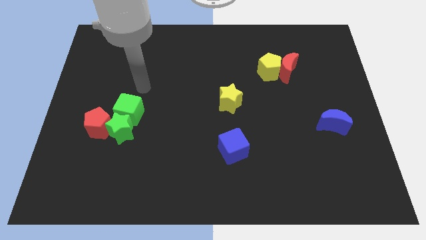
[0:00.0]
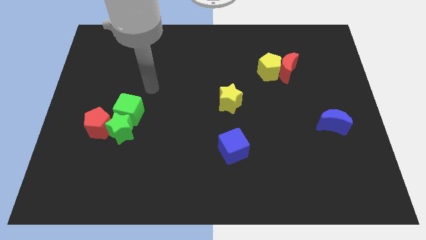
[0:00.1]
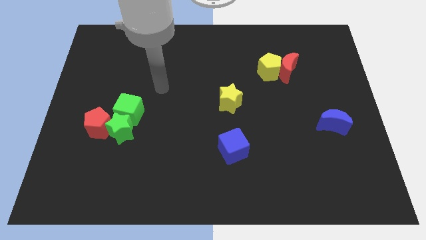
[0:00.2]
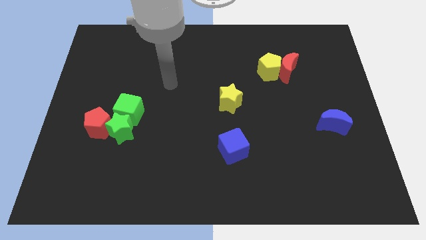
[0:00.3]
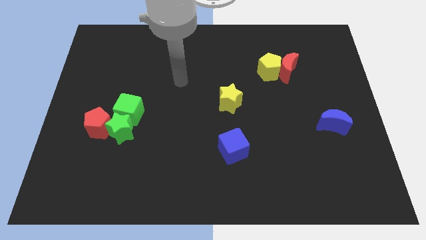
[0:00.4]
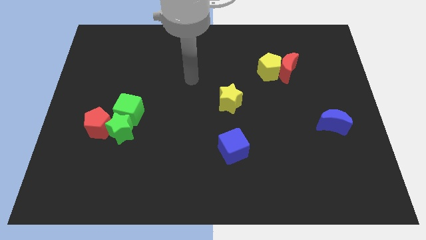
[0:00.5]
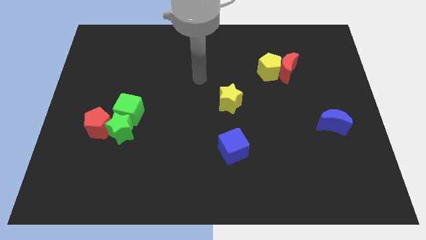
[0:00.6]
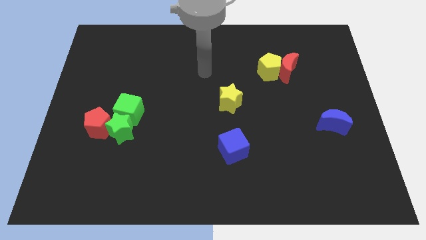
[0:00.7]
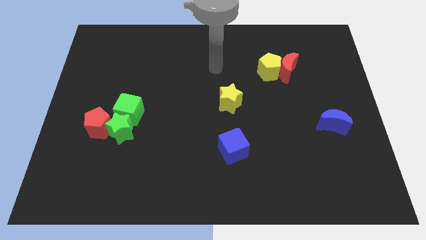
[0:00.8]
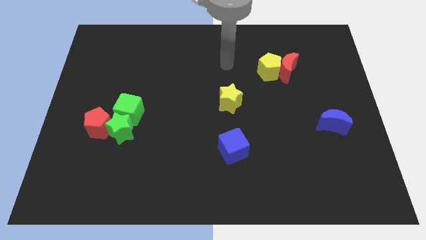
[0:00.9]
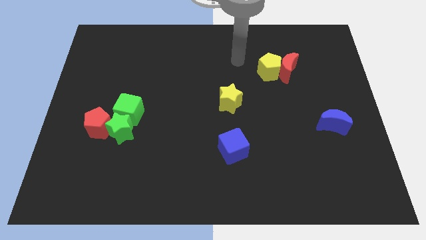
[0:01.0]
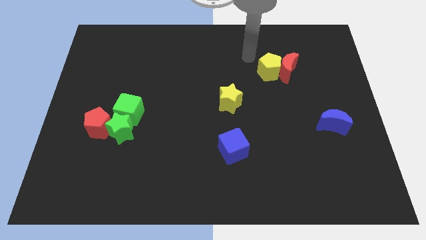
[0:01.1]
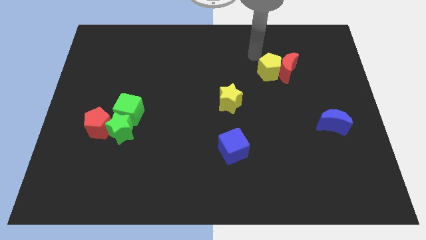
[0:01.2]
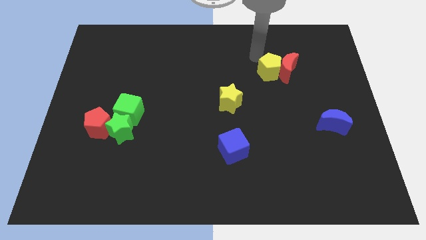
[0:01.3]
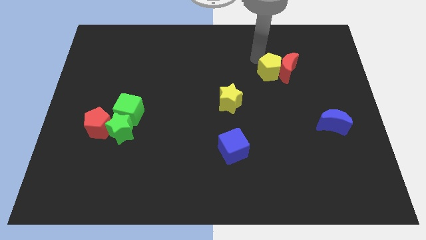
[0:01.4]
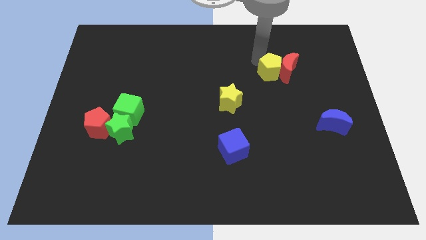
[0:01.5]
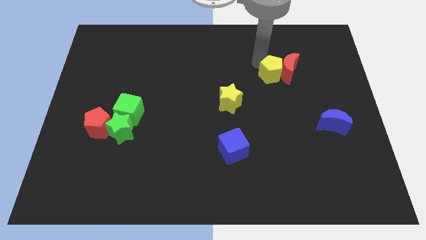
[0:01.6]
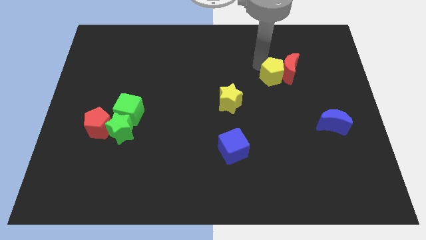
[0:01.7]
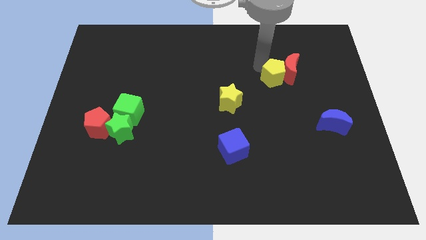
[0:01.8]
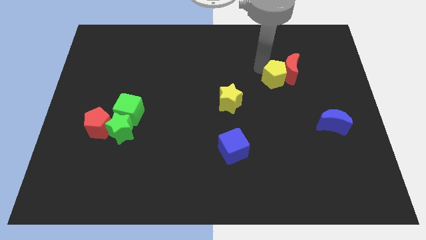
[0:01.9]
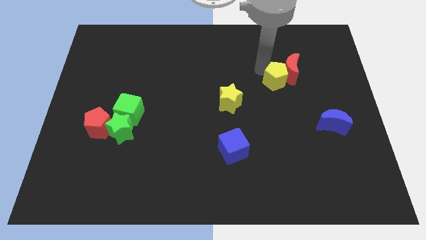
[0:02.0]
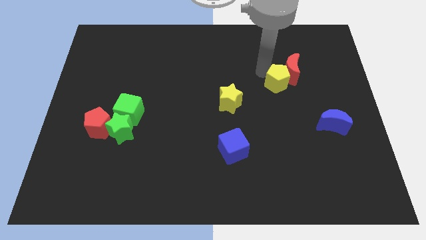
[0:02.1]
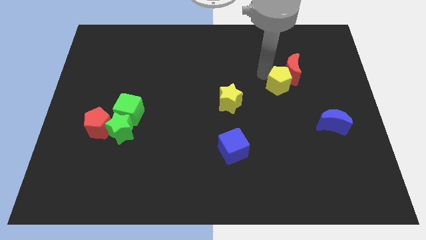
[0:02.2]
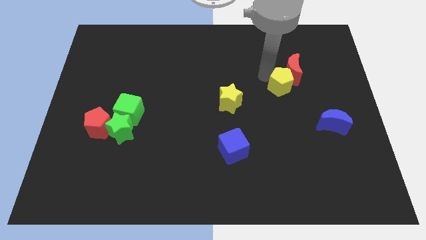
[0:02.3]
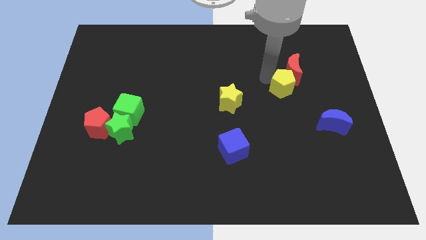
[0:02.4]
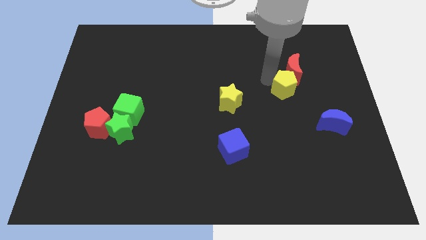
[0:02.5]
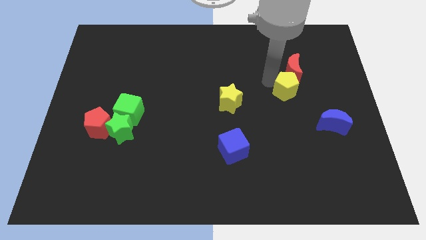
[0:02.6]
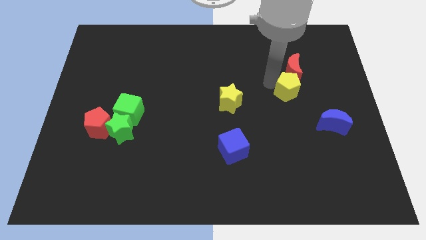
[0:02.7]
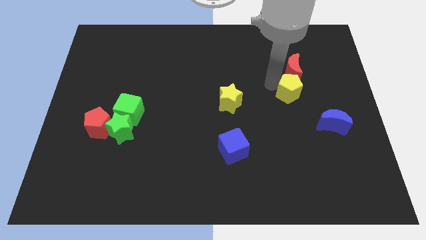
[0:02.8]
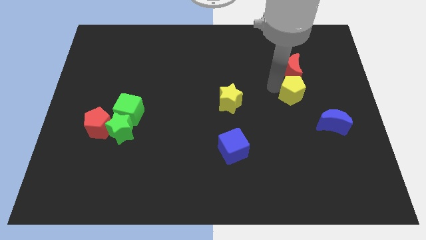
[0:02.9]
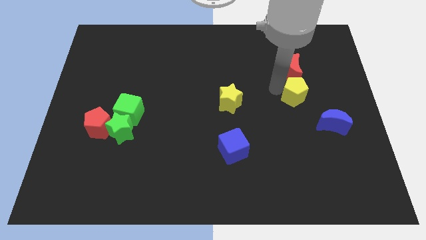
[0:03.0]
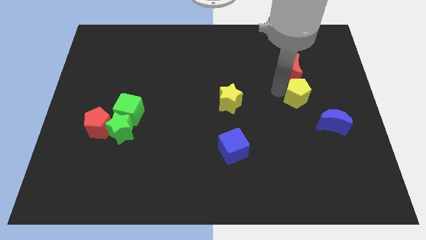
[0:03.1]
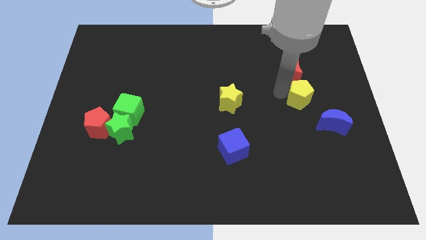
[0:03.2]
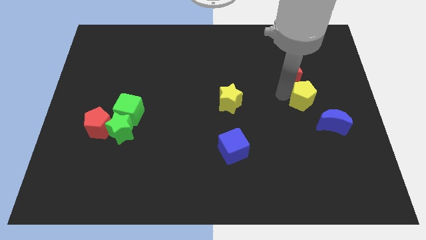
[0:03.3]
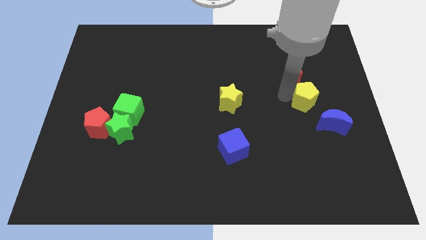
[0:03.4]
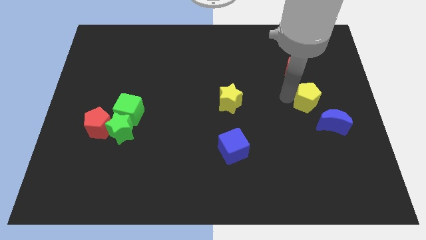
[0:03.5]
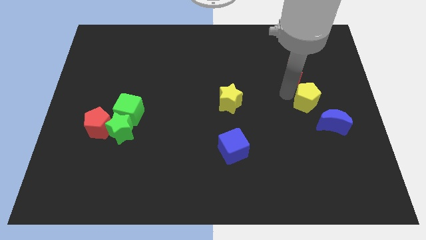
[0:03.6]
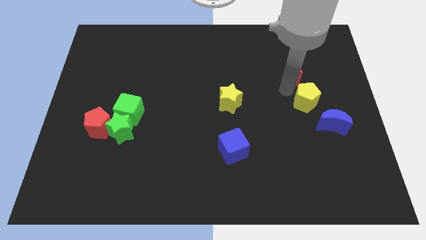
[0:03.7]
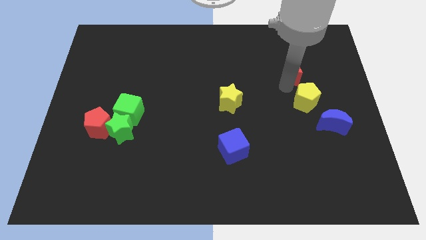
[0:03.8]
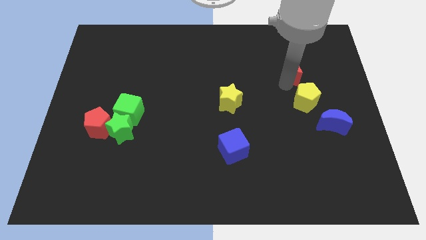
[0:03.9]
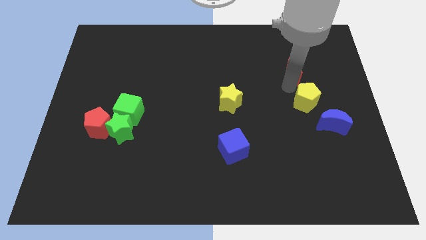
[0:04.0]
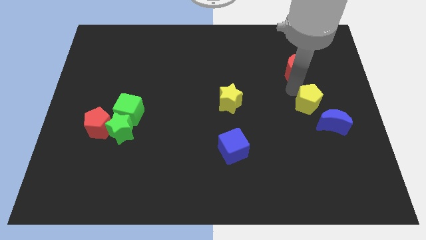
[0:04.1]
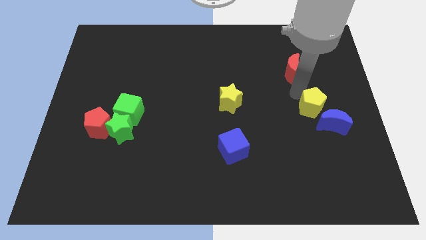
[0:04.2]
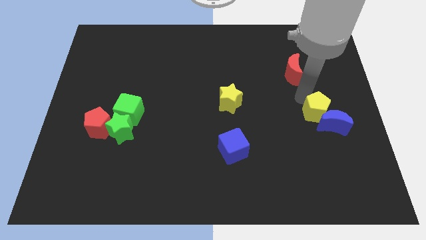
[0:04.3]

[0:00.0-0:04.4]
slide the yellow pentagon to the blue moon

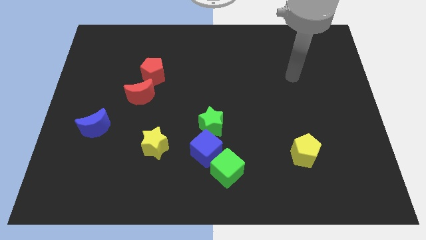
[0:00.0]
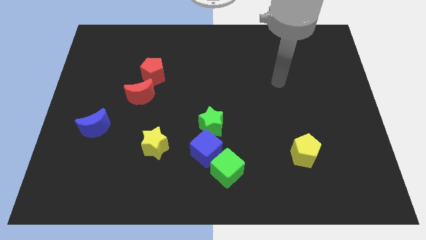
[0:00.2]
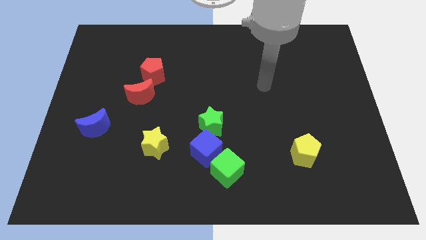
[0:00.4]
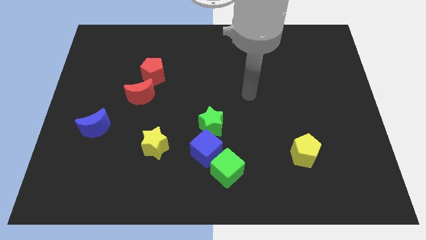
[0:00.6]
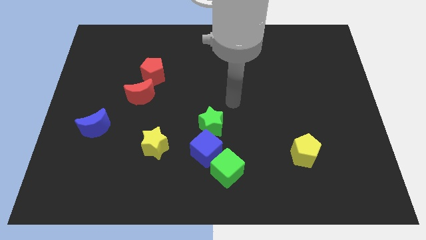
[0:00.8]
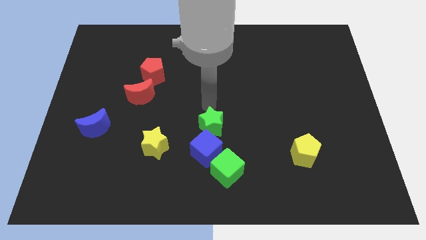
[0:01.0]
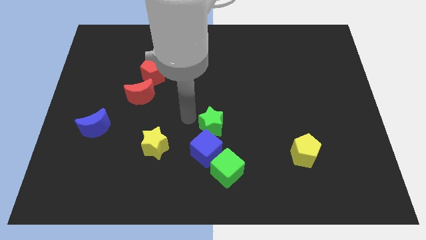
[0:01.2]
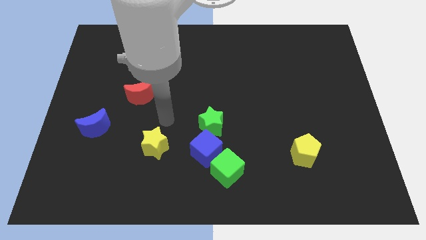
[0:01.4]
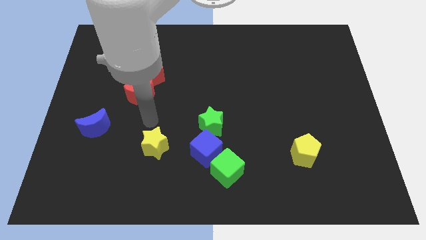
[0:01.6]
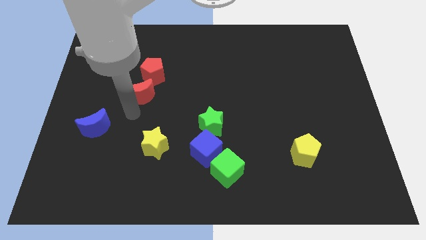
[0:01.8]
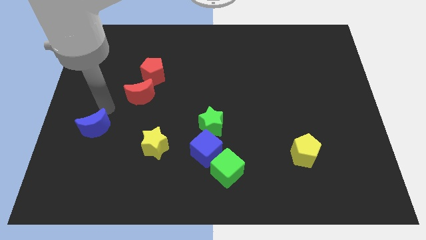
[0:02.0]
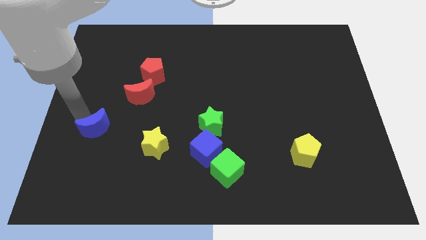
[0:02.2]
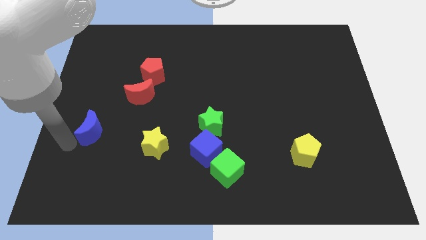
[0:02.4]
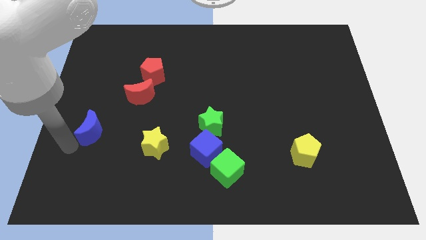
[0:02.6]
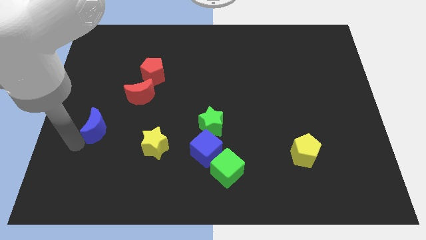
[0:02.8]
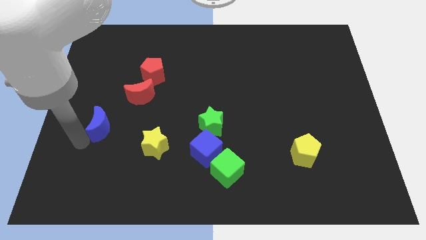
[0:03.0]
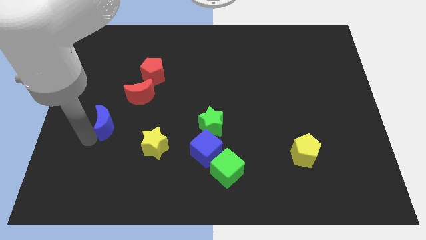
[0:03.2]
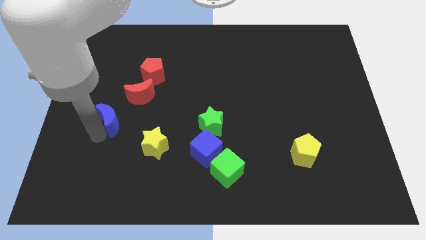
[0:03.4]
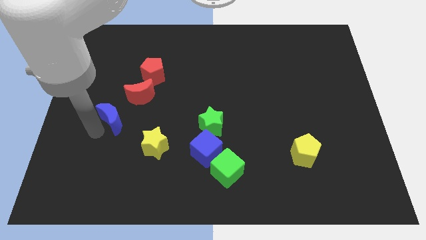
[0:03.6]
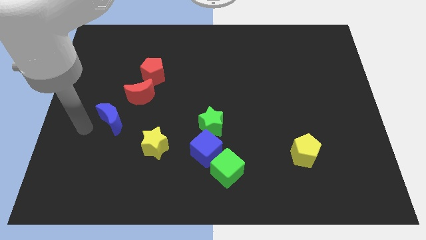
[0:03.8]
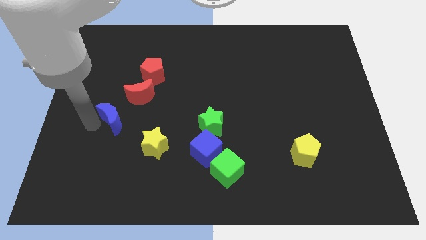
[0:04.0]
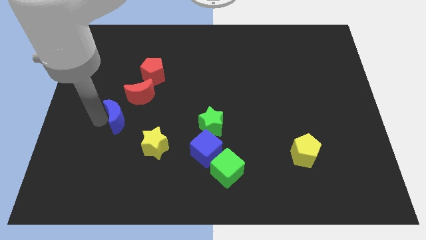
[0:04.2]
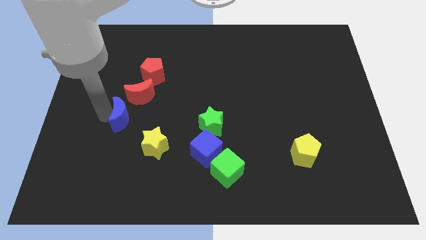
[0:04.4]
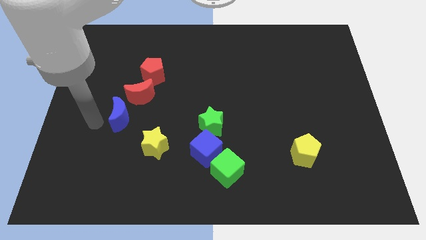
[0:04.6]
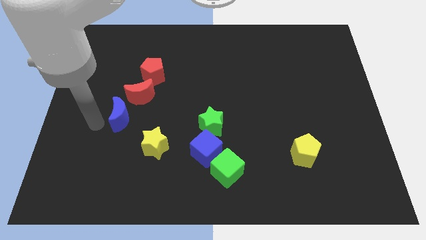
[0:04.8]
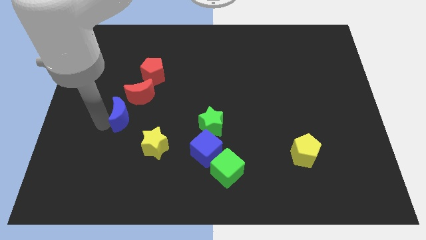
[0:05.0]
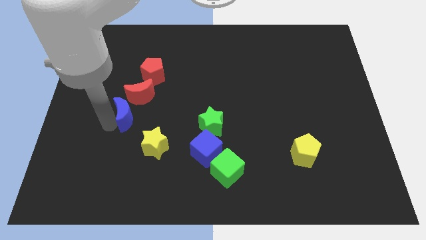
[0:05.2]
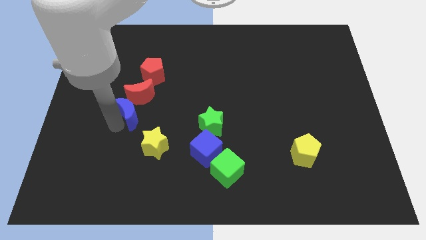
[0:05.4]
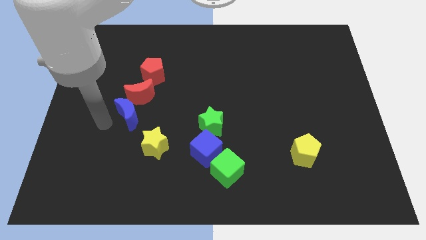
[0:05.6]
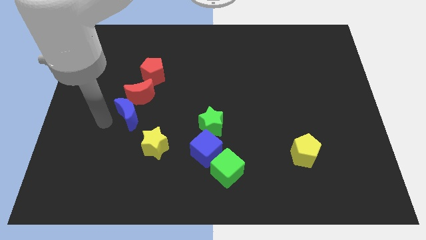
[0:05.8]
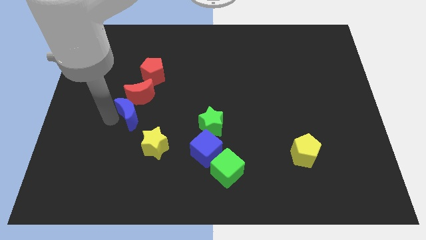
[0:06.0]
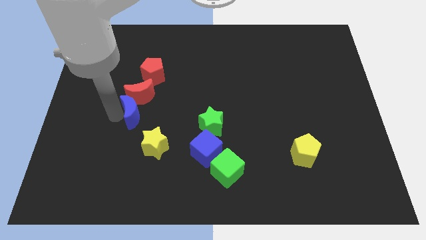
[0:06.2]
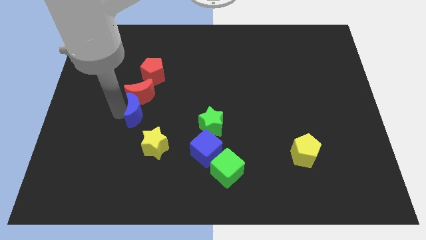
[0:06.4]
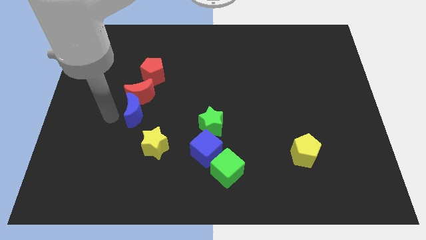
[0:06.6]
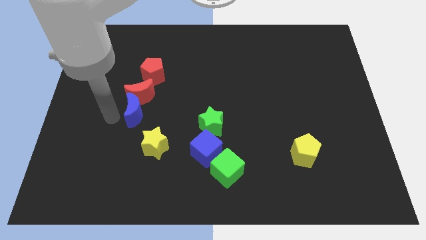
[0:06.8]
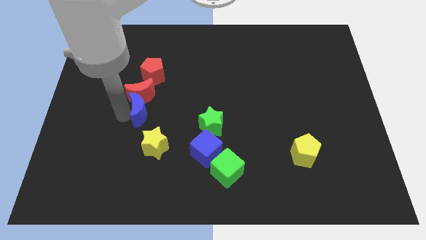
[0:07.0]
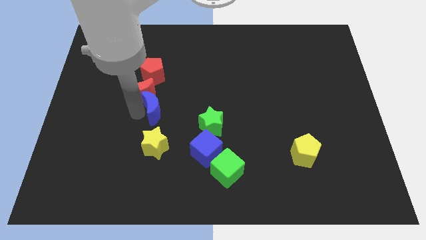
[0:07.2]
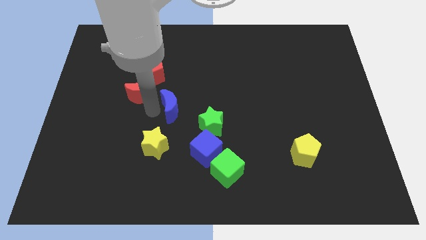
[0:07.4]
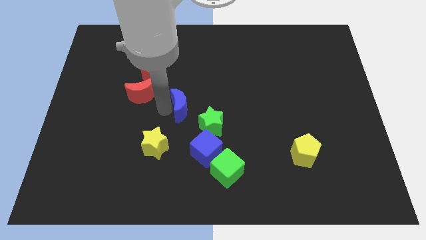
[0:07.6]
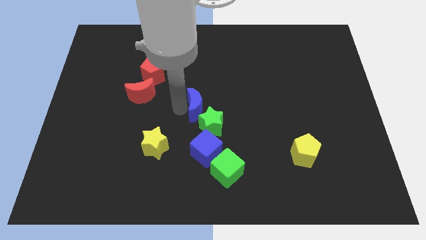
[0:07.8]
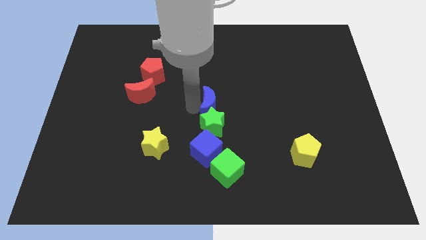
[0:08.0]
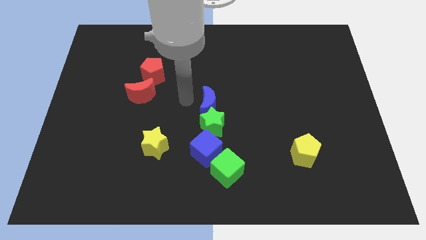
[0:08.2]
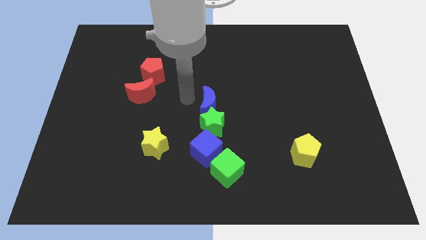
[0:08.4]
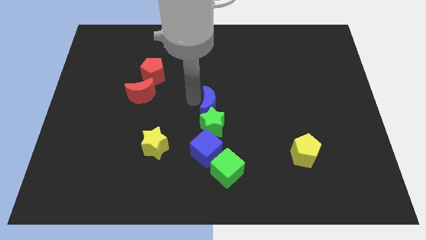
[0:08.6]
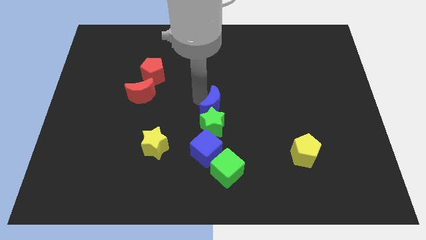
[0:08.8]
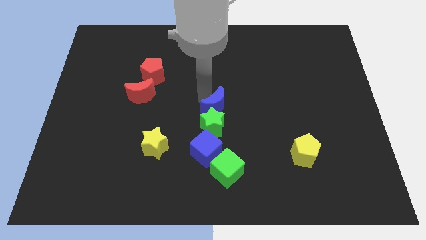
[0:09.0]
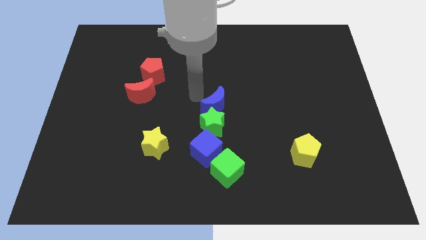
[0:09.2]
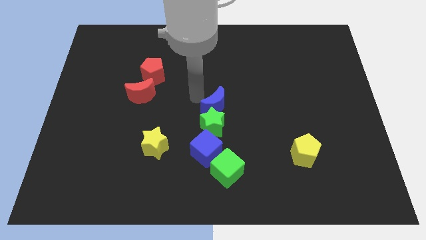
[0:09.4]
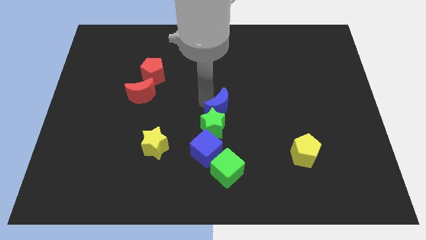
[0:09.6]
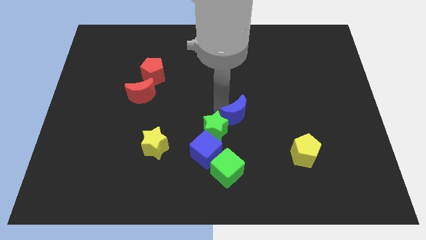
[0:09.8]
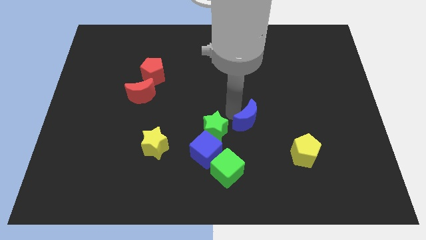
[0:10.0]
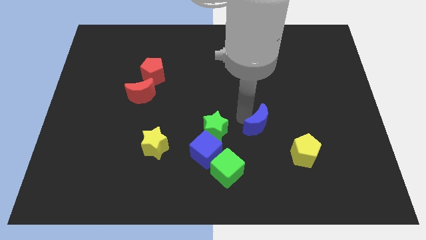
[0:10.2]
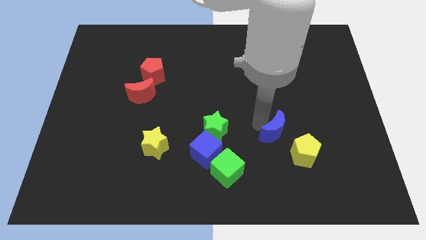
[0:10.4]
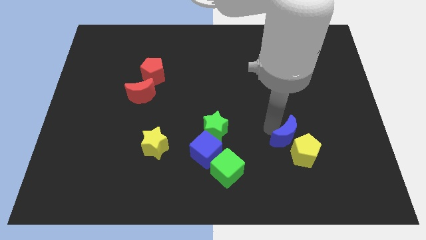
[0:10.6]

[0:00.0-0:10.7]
put the blue moon to the yellow pentagon
